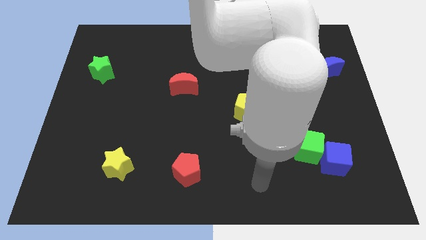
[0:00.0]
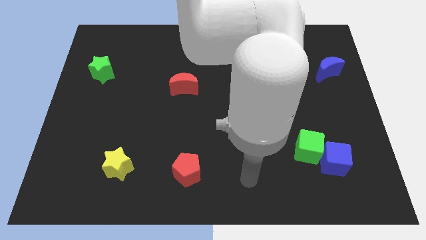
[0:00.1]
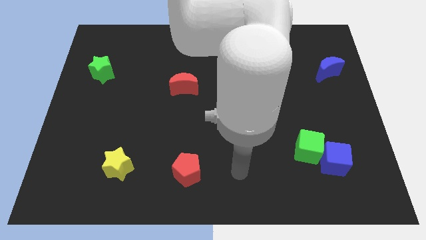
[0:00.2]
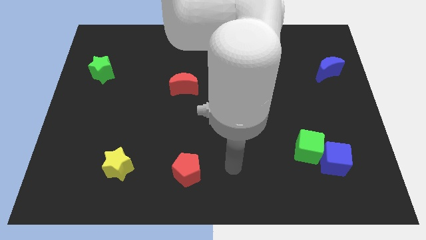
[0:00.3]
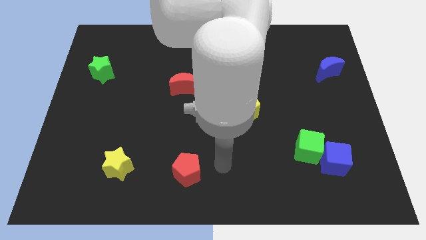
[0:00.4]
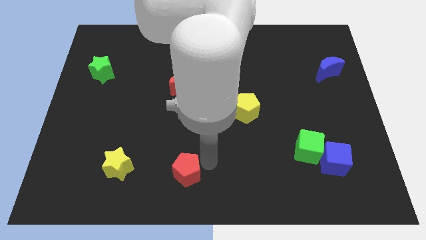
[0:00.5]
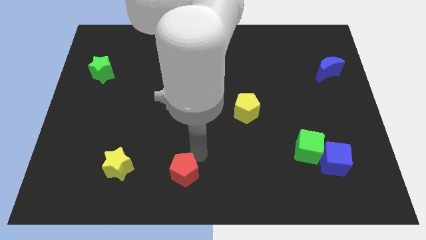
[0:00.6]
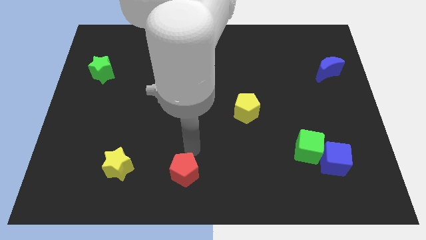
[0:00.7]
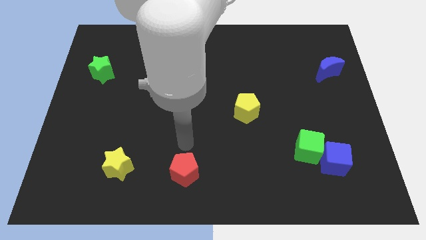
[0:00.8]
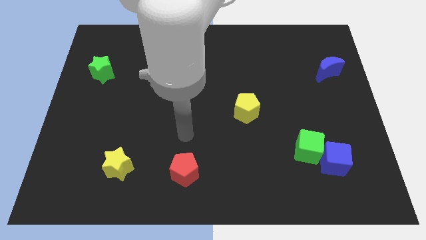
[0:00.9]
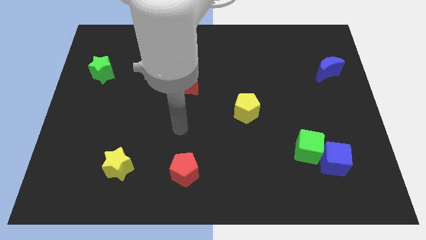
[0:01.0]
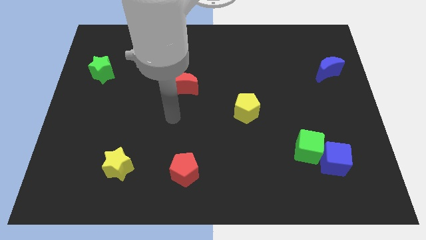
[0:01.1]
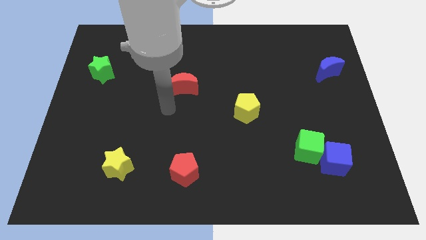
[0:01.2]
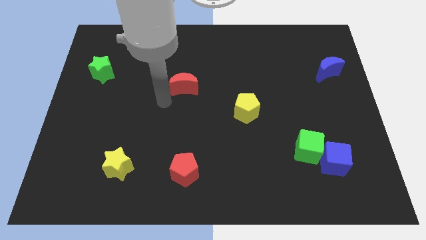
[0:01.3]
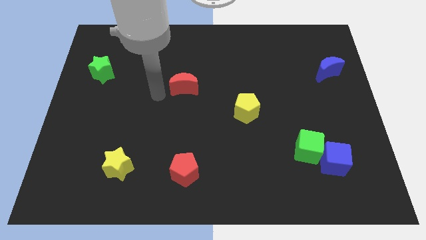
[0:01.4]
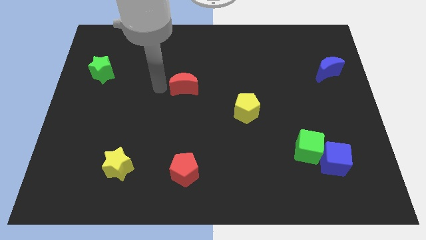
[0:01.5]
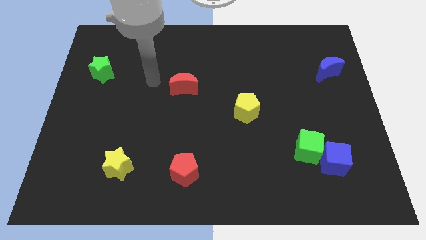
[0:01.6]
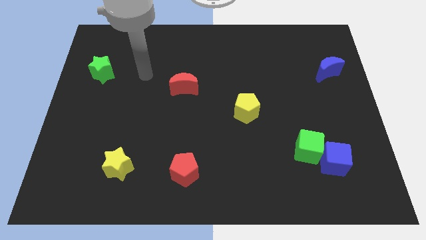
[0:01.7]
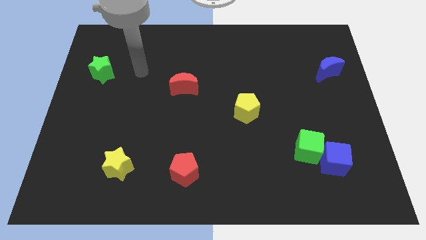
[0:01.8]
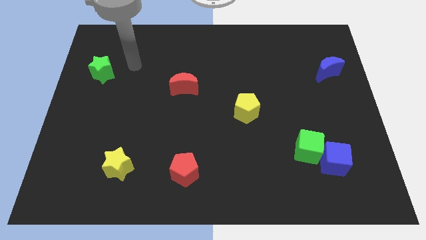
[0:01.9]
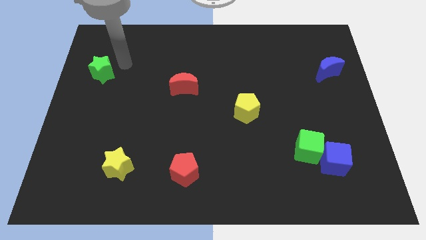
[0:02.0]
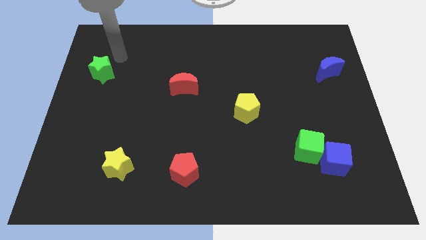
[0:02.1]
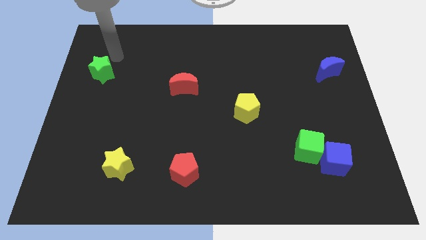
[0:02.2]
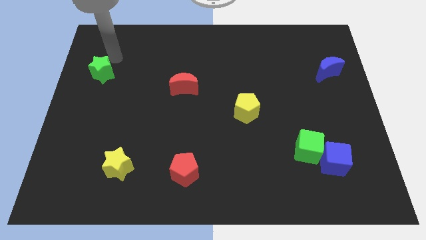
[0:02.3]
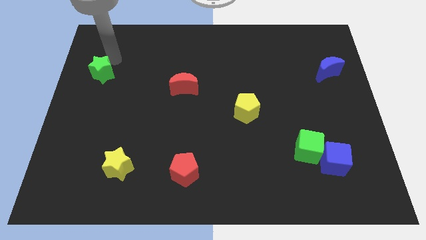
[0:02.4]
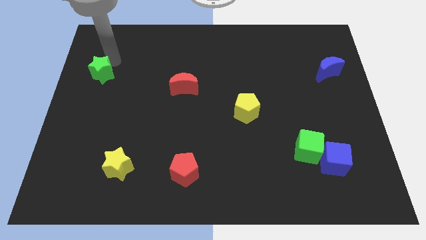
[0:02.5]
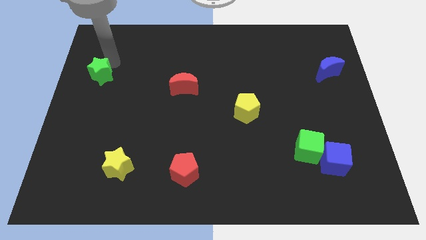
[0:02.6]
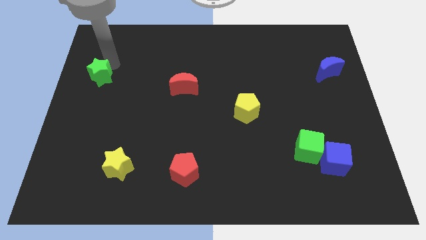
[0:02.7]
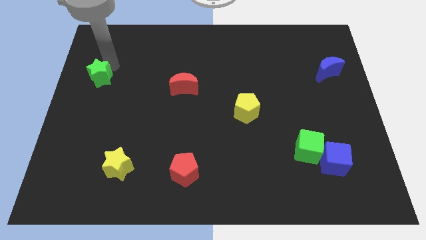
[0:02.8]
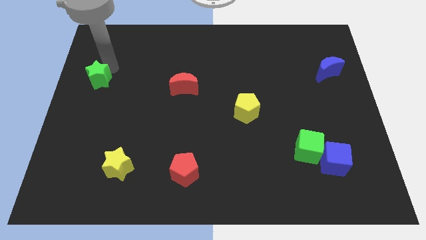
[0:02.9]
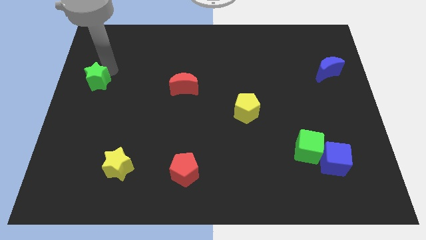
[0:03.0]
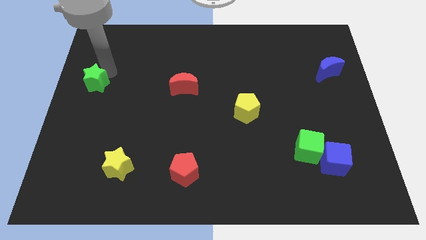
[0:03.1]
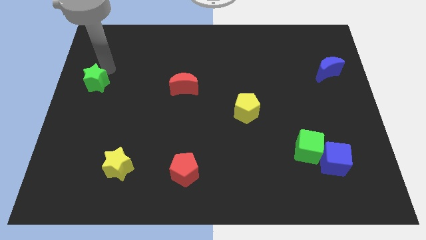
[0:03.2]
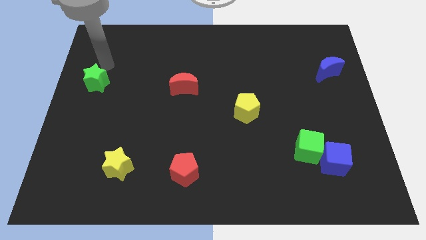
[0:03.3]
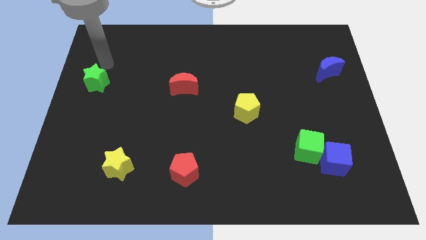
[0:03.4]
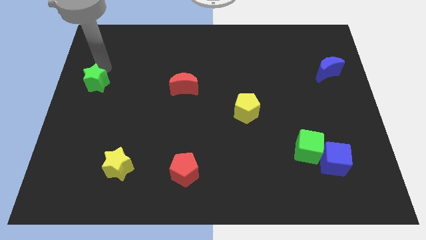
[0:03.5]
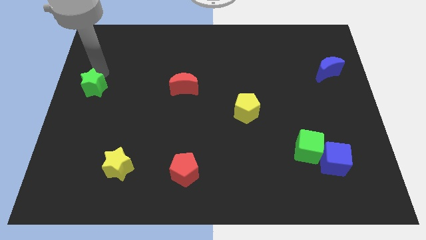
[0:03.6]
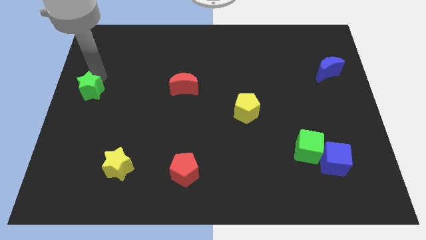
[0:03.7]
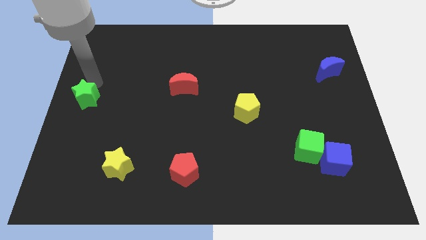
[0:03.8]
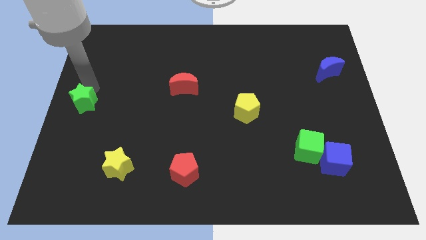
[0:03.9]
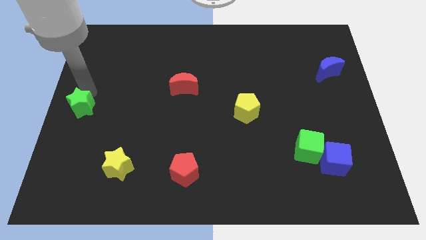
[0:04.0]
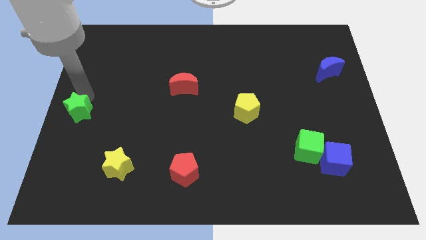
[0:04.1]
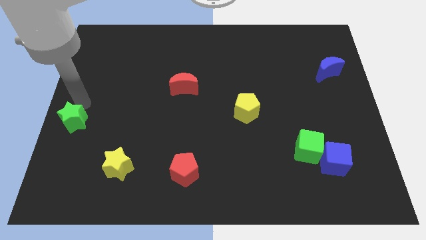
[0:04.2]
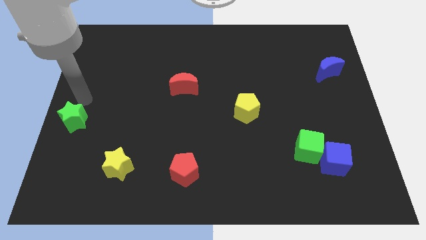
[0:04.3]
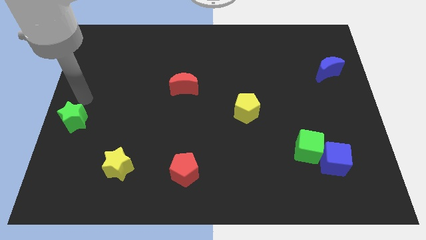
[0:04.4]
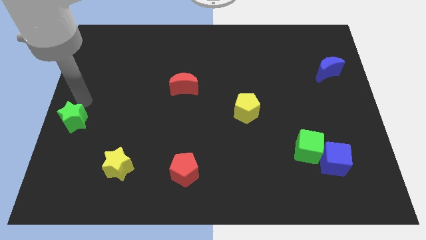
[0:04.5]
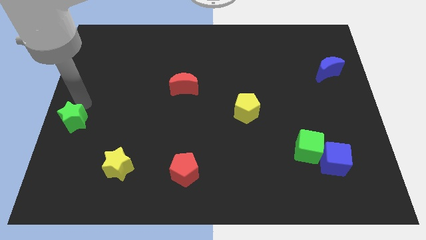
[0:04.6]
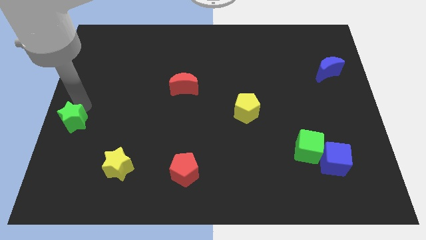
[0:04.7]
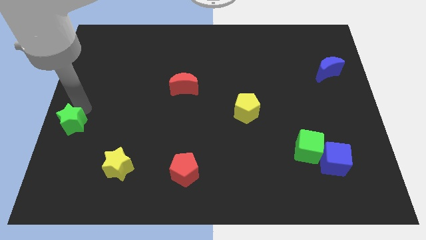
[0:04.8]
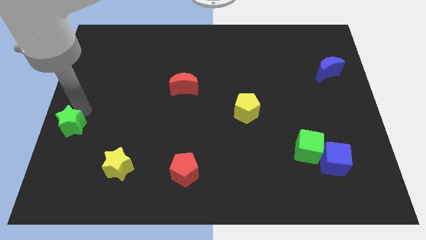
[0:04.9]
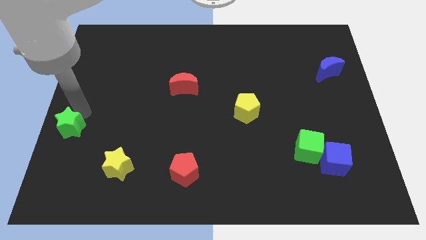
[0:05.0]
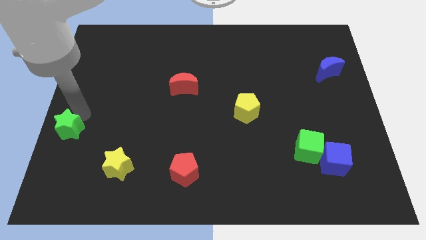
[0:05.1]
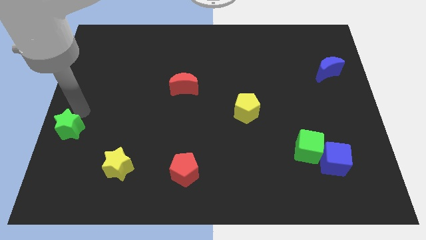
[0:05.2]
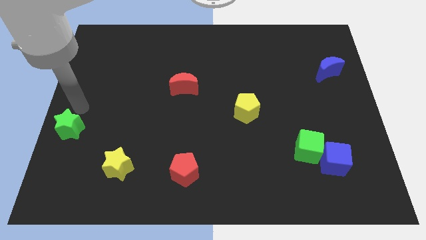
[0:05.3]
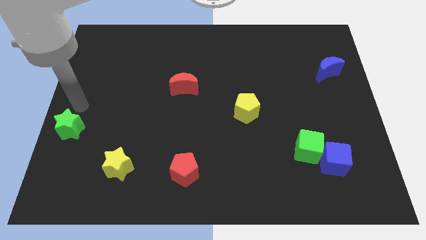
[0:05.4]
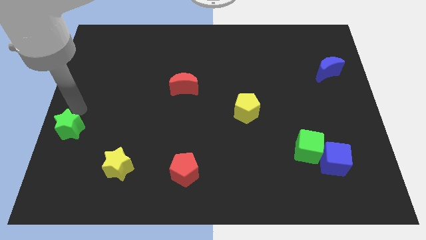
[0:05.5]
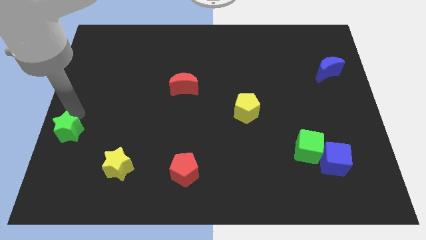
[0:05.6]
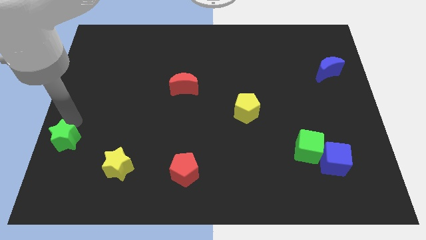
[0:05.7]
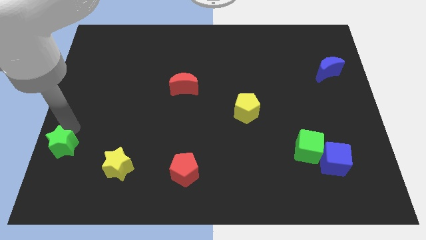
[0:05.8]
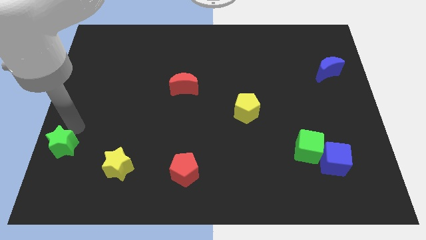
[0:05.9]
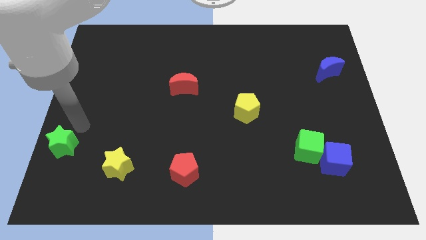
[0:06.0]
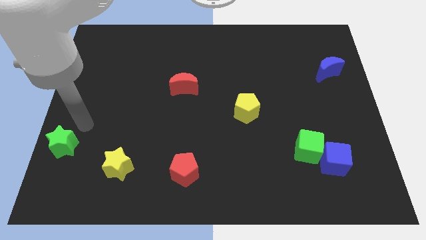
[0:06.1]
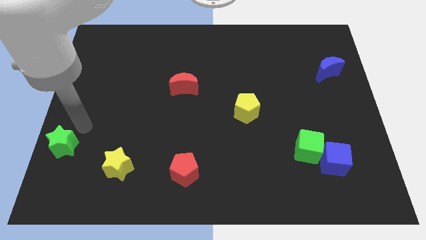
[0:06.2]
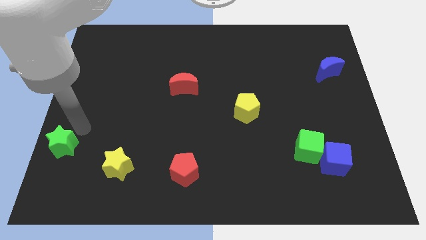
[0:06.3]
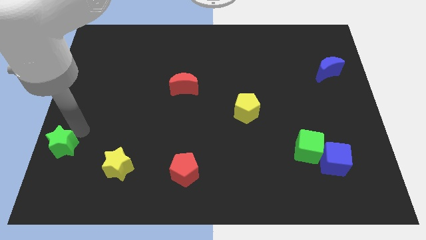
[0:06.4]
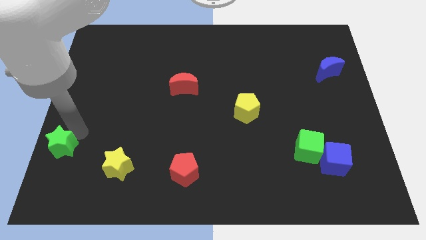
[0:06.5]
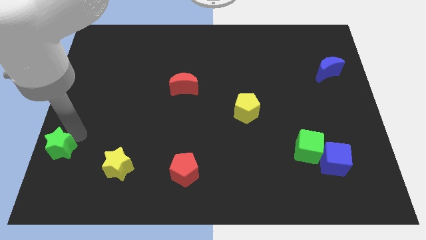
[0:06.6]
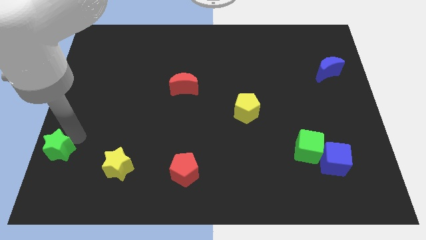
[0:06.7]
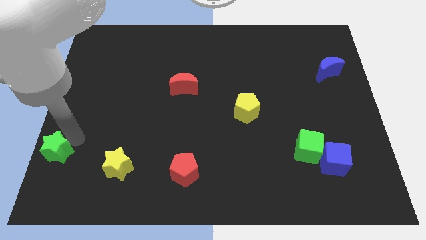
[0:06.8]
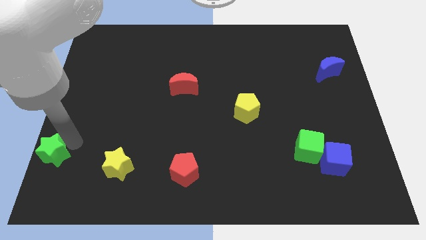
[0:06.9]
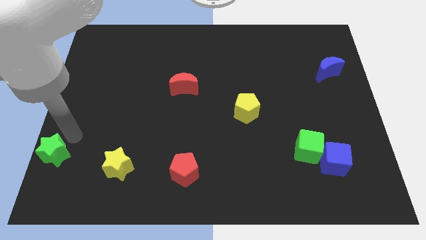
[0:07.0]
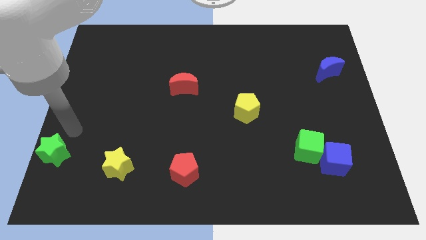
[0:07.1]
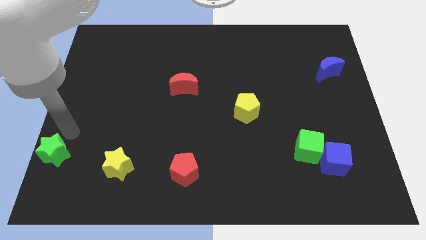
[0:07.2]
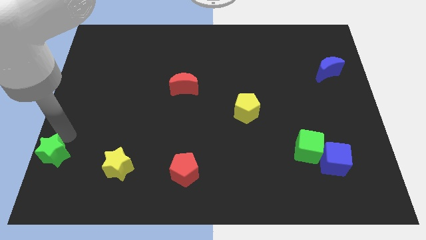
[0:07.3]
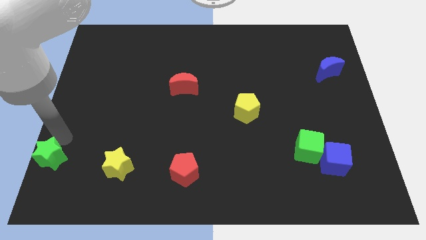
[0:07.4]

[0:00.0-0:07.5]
put the green star to the bottom left corner
